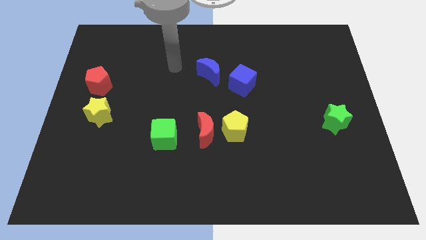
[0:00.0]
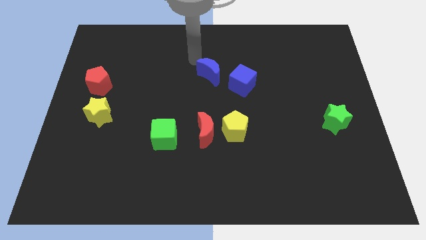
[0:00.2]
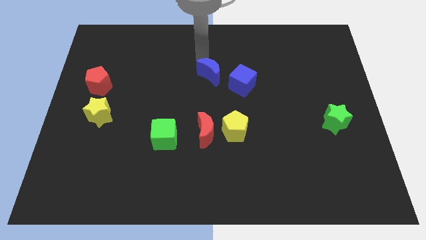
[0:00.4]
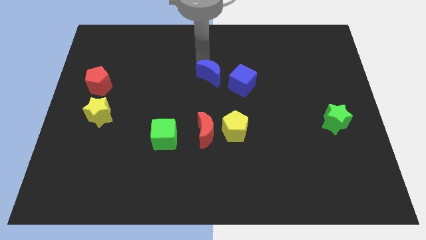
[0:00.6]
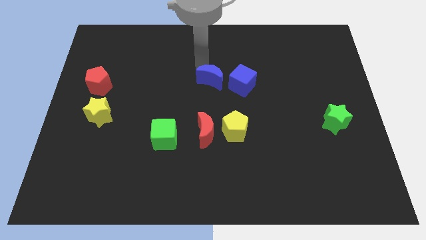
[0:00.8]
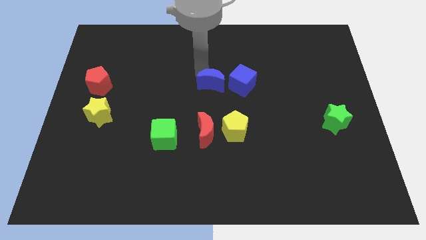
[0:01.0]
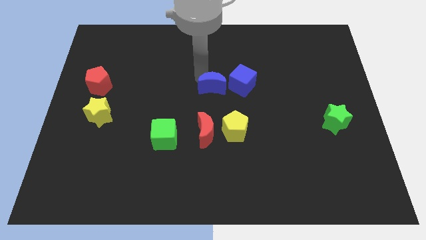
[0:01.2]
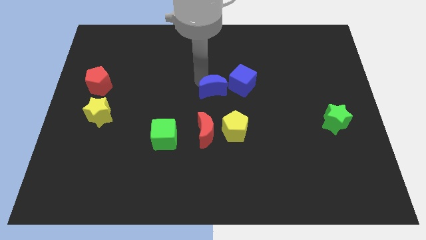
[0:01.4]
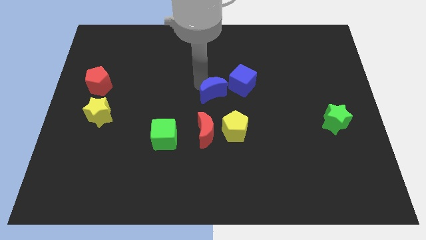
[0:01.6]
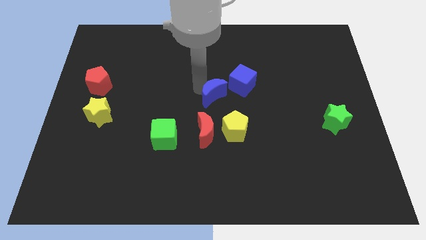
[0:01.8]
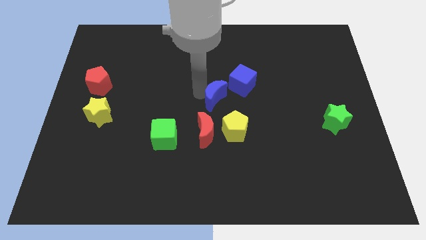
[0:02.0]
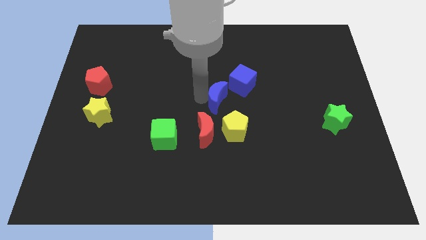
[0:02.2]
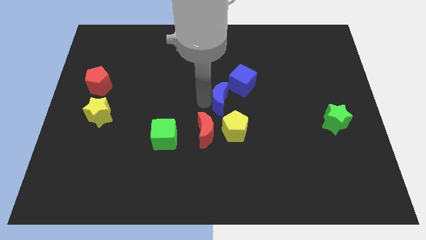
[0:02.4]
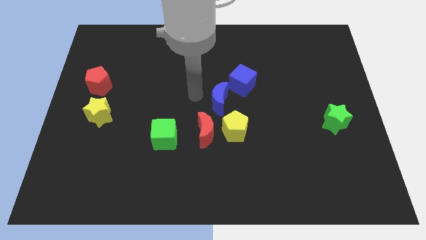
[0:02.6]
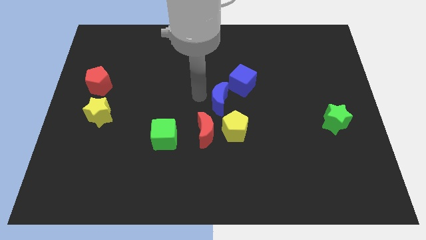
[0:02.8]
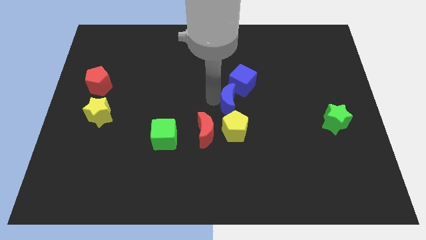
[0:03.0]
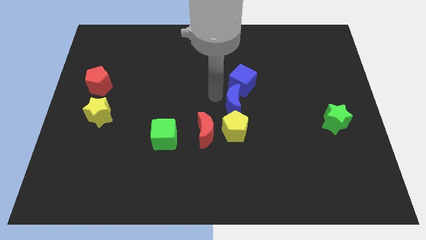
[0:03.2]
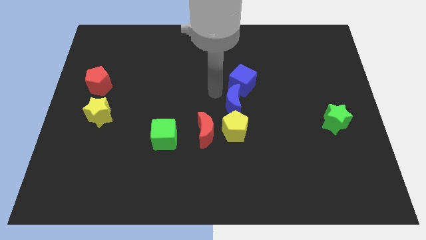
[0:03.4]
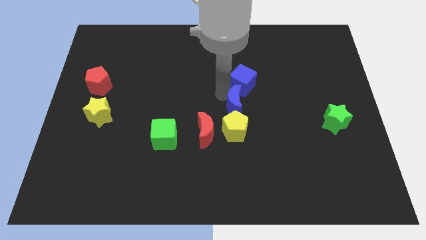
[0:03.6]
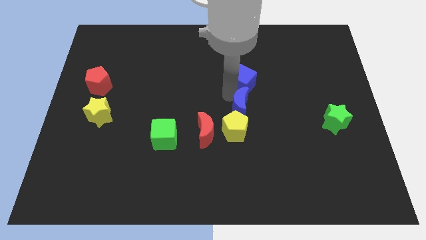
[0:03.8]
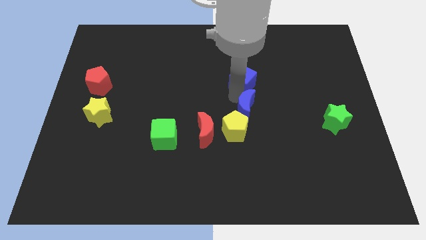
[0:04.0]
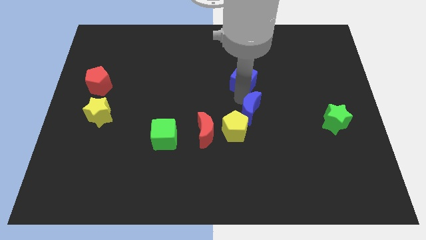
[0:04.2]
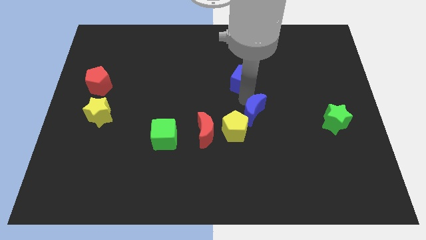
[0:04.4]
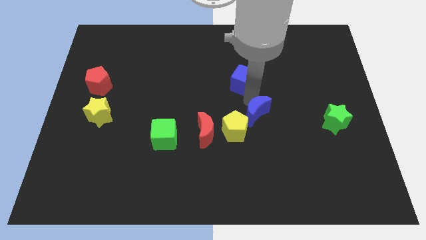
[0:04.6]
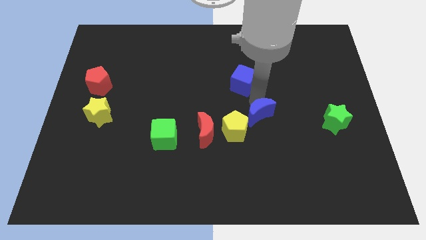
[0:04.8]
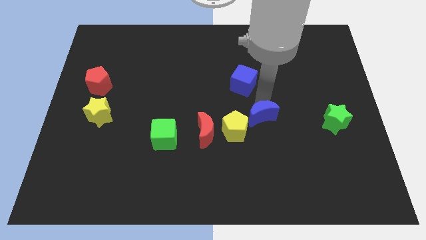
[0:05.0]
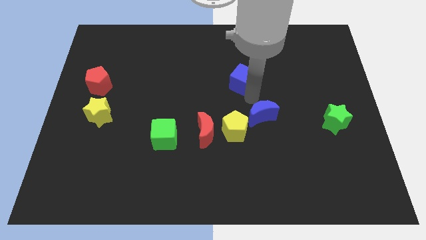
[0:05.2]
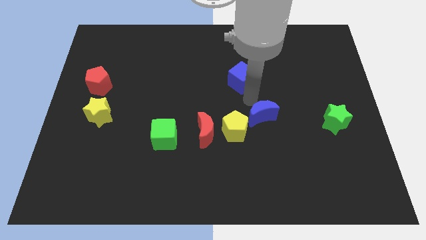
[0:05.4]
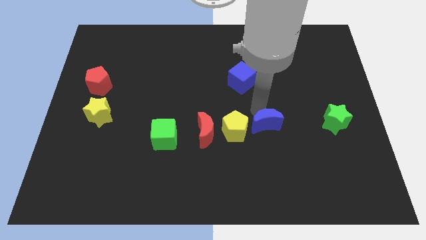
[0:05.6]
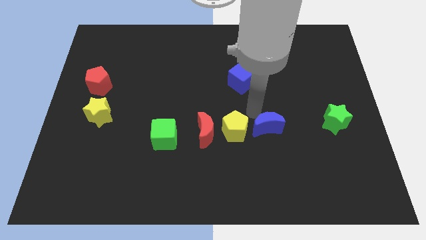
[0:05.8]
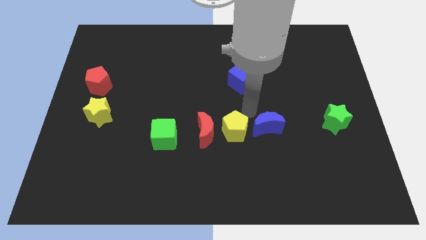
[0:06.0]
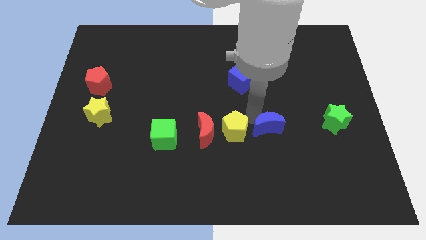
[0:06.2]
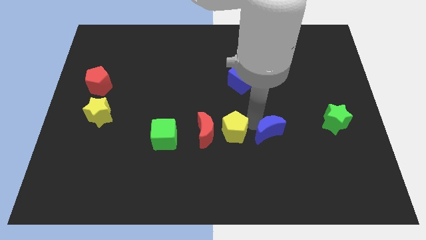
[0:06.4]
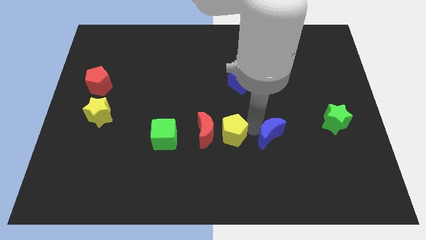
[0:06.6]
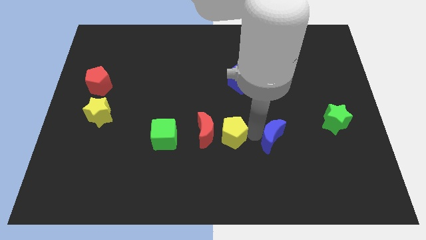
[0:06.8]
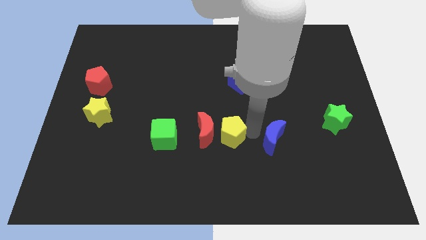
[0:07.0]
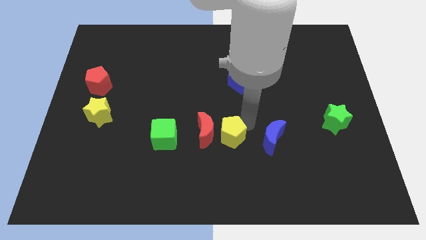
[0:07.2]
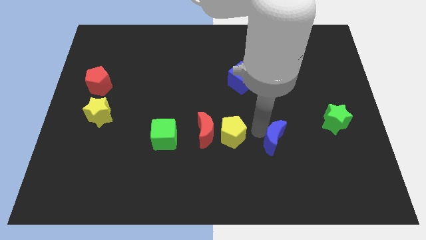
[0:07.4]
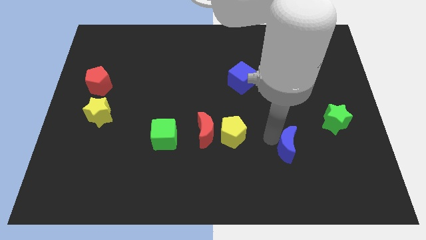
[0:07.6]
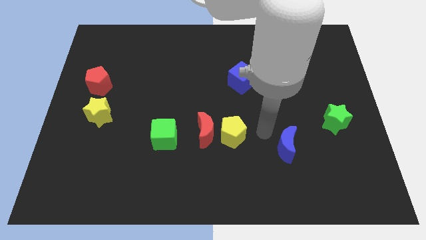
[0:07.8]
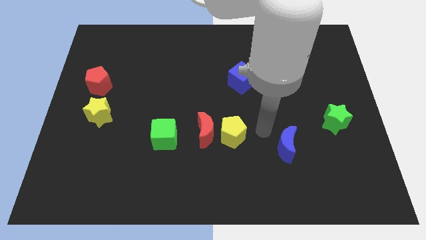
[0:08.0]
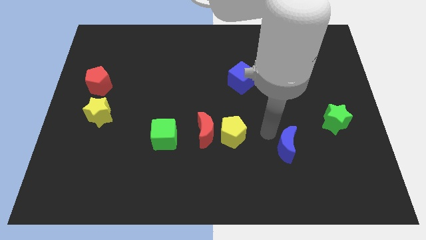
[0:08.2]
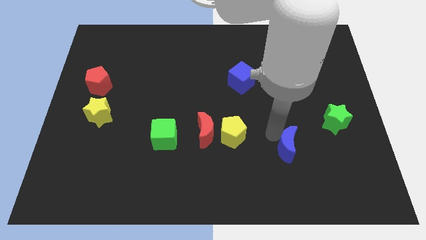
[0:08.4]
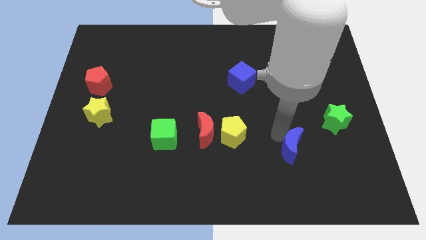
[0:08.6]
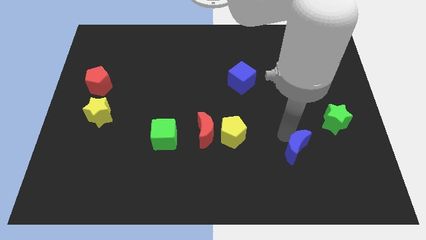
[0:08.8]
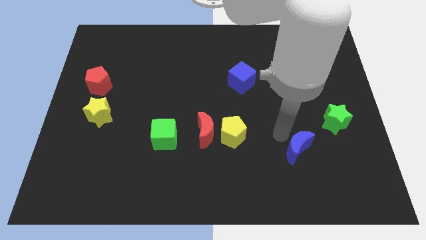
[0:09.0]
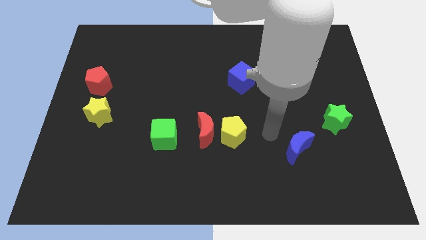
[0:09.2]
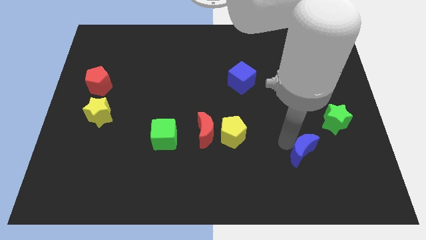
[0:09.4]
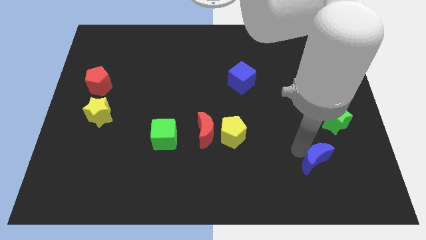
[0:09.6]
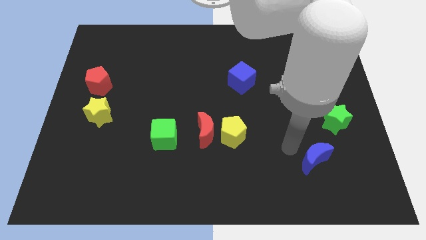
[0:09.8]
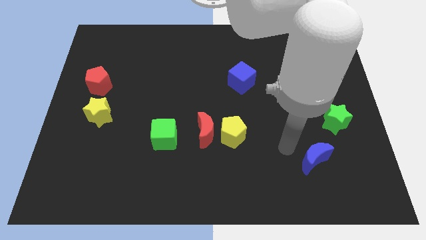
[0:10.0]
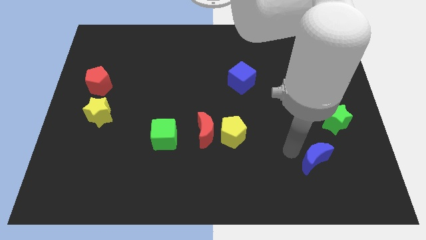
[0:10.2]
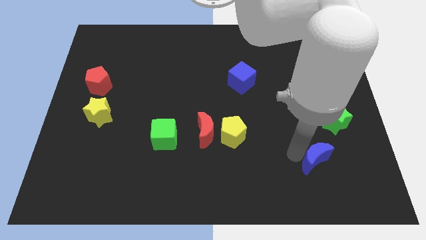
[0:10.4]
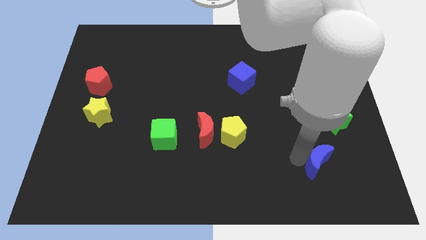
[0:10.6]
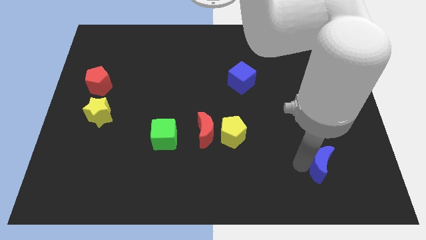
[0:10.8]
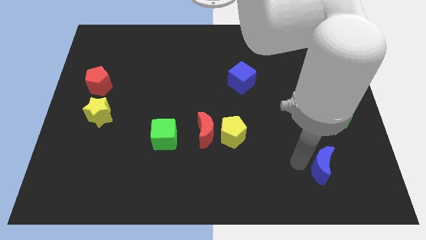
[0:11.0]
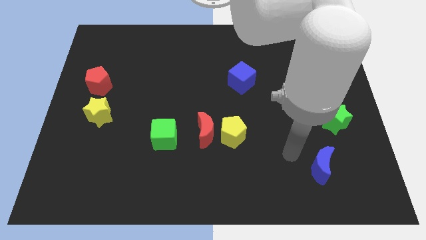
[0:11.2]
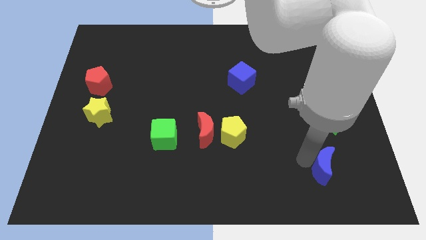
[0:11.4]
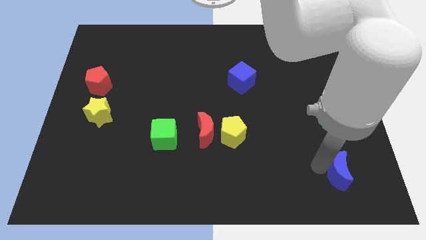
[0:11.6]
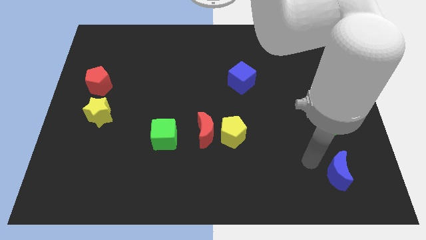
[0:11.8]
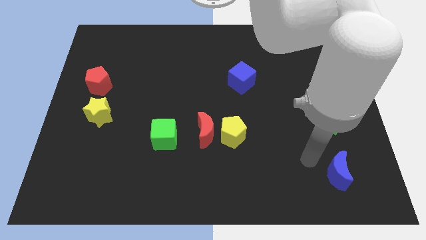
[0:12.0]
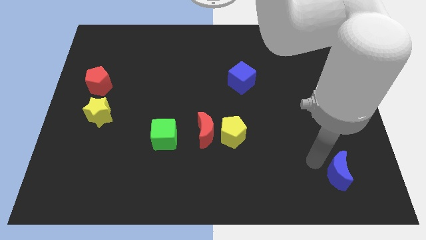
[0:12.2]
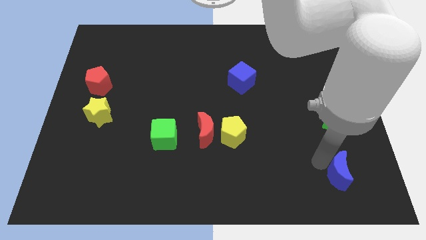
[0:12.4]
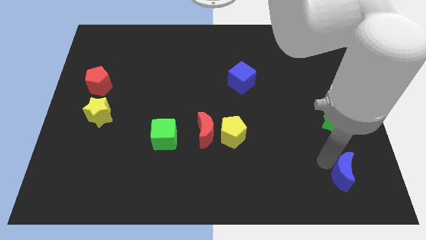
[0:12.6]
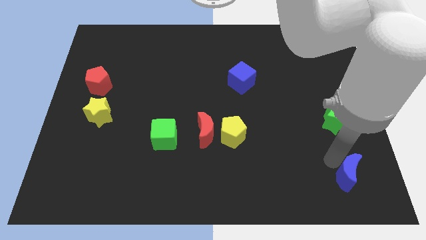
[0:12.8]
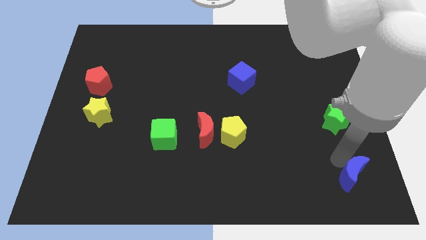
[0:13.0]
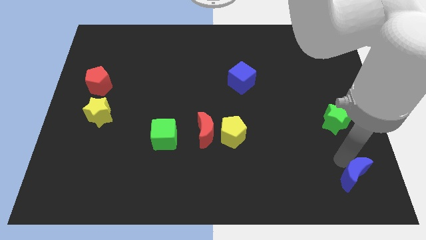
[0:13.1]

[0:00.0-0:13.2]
move the blue moon to the bottom right
